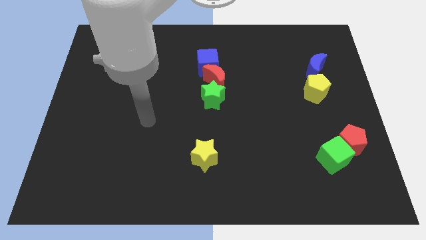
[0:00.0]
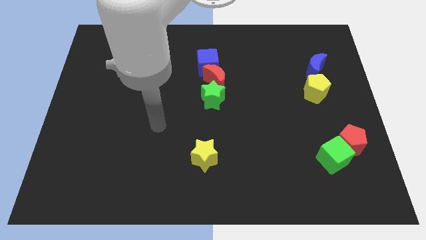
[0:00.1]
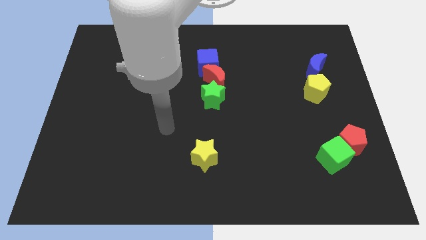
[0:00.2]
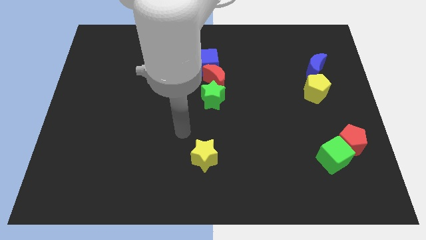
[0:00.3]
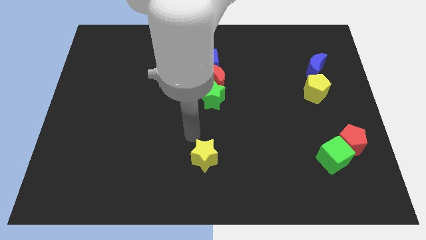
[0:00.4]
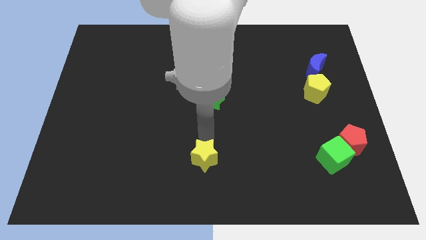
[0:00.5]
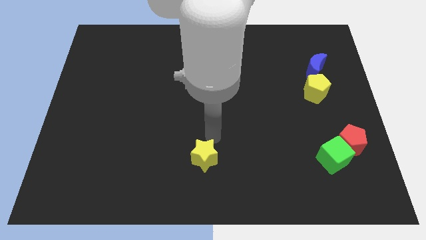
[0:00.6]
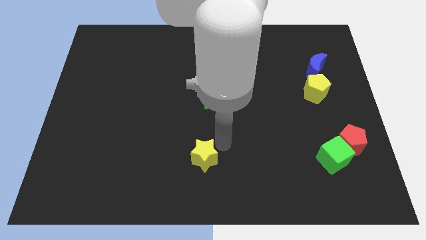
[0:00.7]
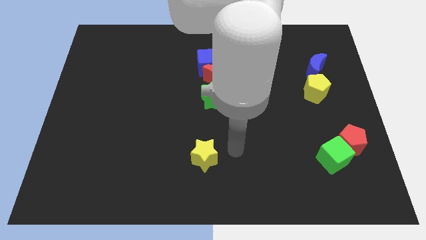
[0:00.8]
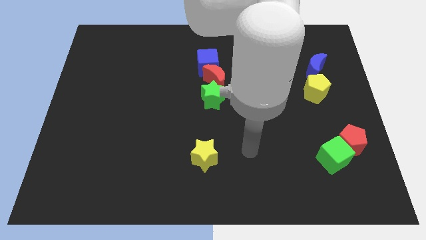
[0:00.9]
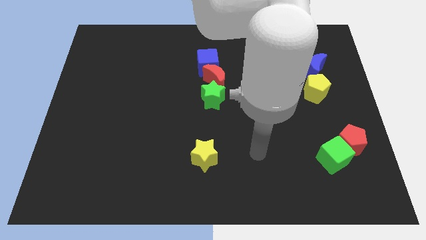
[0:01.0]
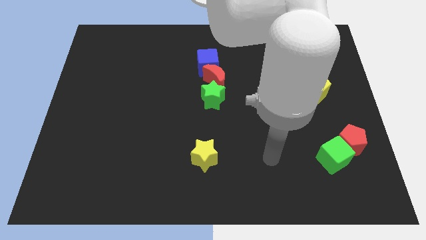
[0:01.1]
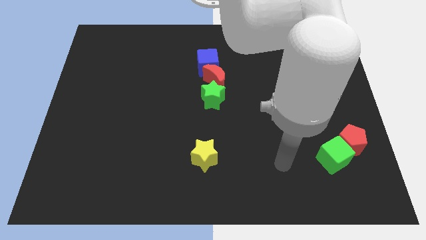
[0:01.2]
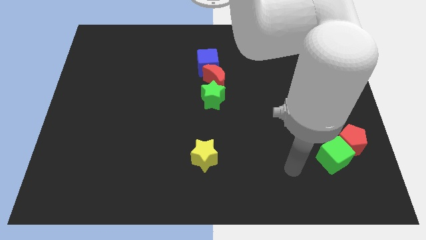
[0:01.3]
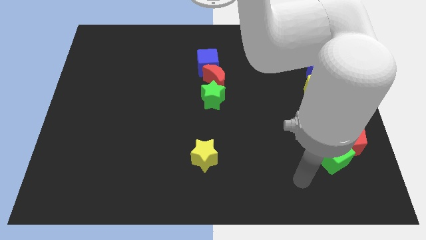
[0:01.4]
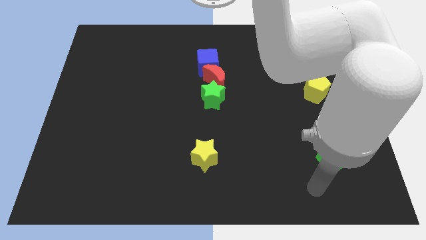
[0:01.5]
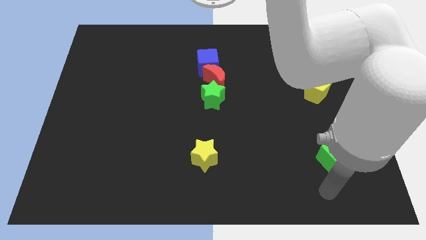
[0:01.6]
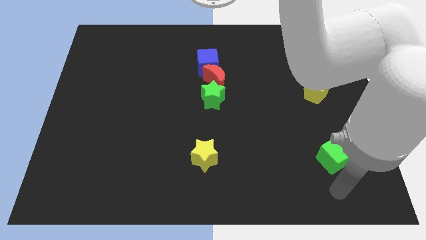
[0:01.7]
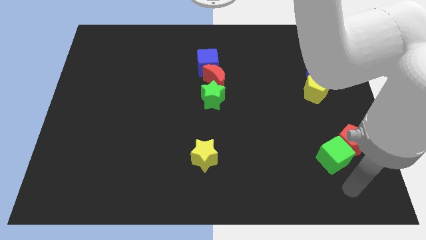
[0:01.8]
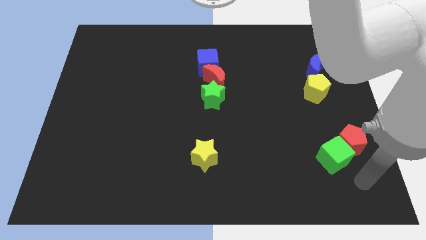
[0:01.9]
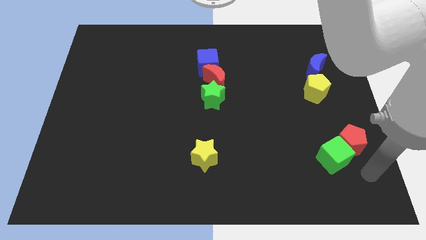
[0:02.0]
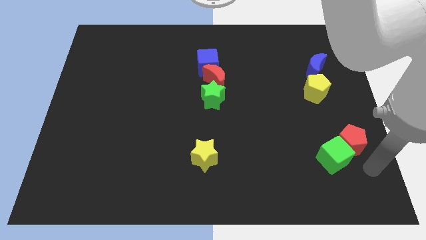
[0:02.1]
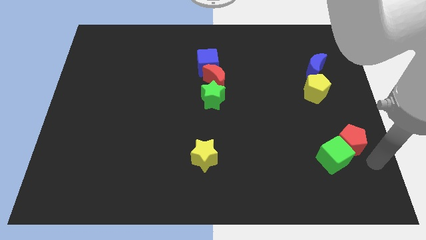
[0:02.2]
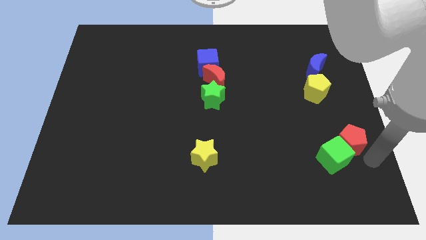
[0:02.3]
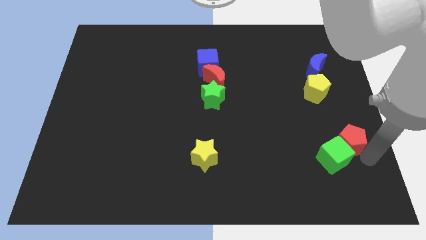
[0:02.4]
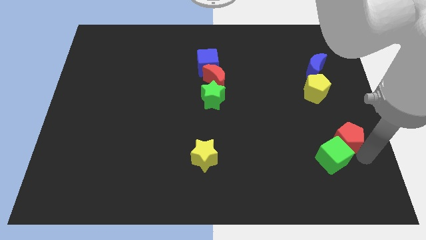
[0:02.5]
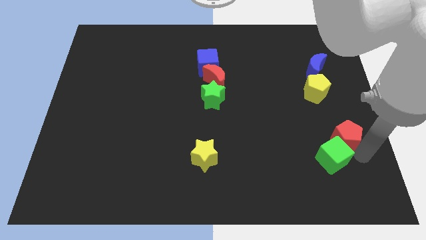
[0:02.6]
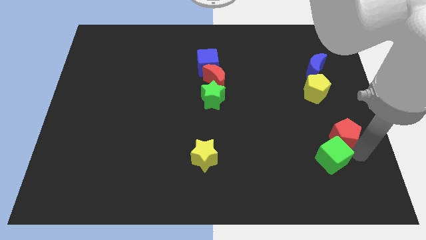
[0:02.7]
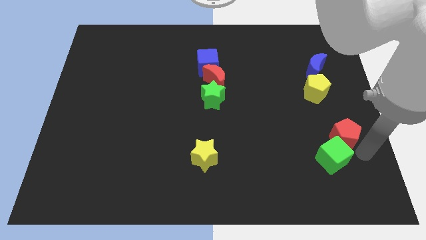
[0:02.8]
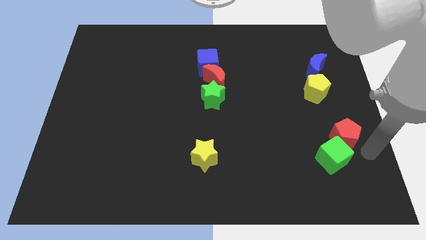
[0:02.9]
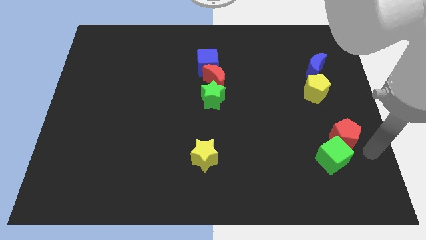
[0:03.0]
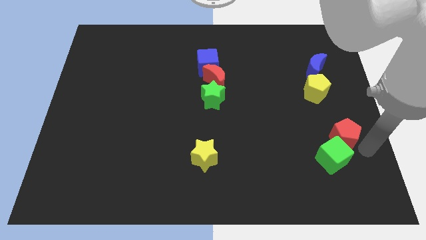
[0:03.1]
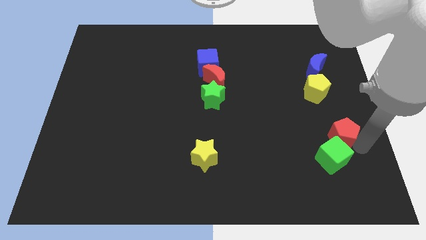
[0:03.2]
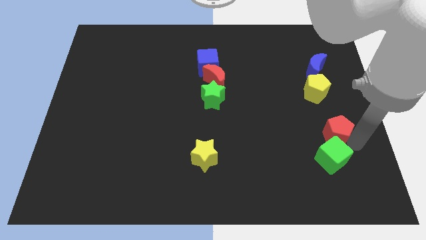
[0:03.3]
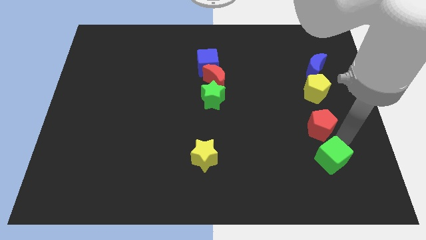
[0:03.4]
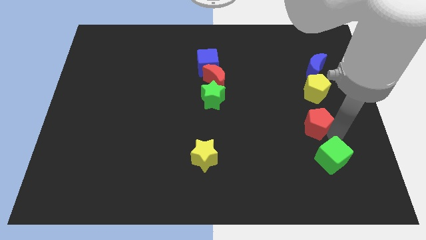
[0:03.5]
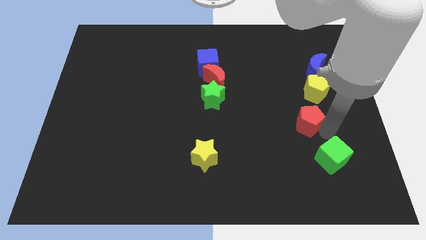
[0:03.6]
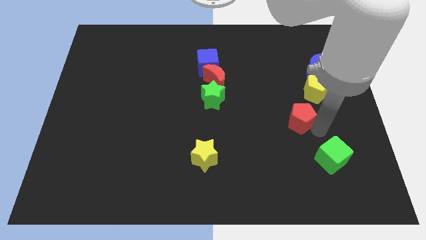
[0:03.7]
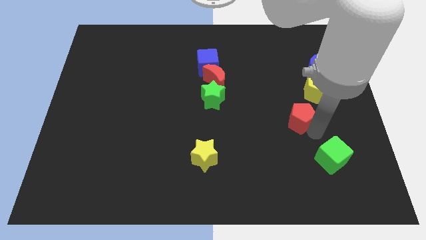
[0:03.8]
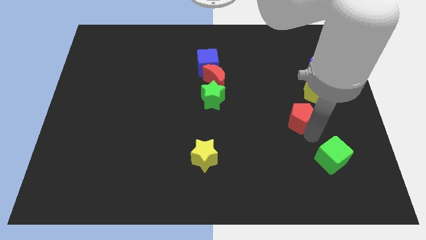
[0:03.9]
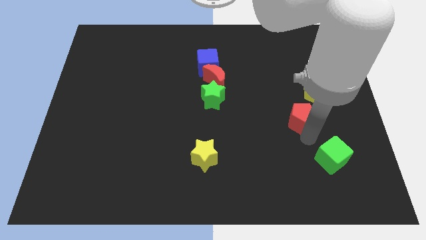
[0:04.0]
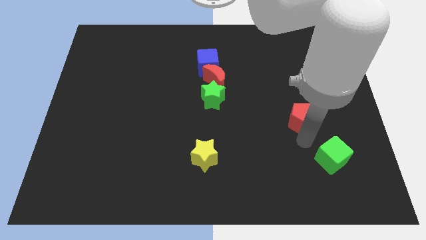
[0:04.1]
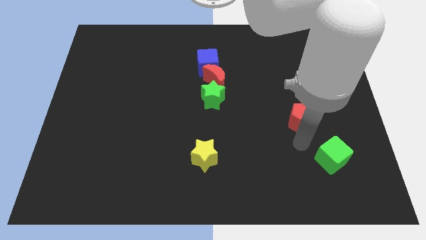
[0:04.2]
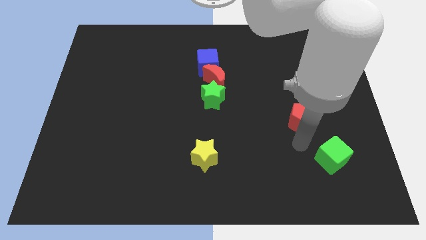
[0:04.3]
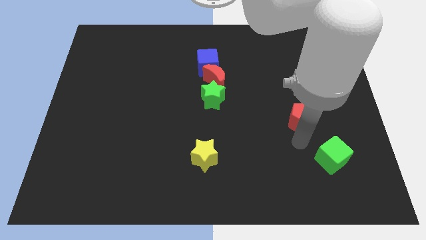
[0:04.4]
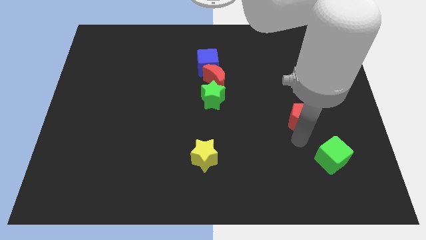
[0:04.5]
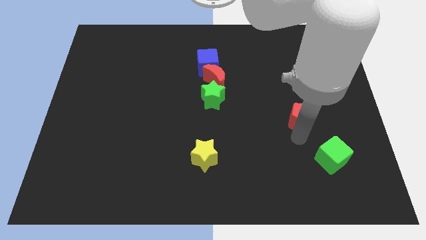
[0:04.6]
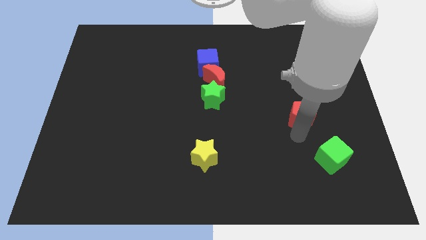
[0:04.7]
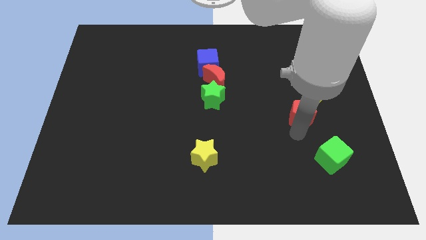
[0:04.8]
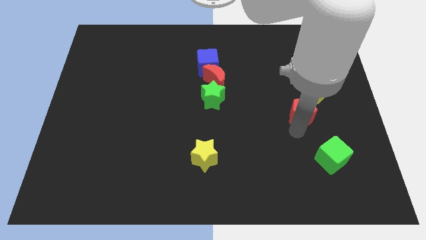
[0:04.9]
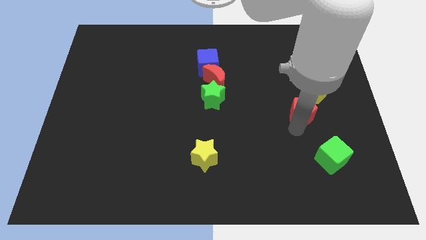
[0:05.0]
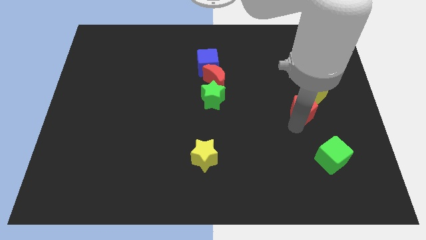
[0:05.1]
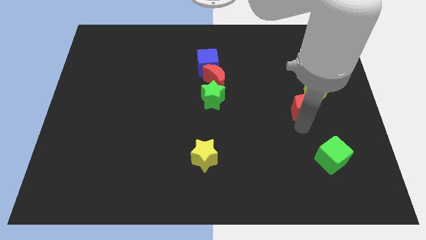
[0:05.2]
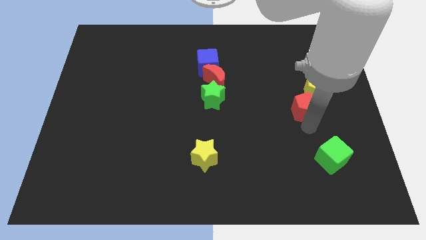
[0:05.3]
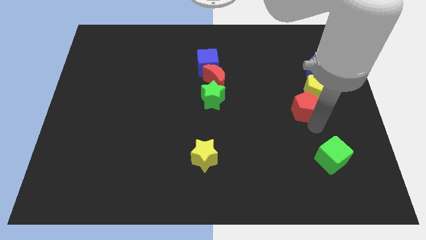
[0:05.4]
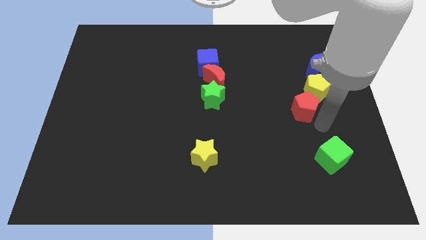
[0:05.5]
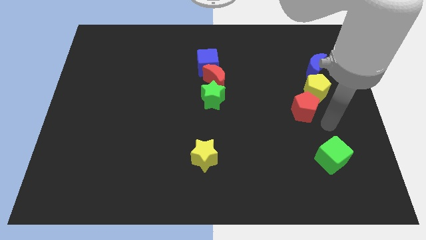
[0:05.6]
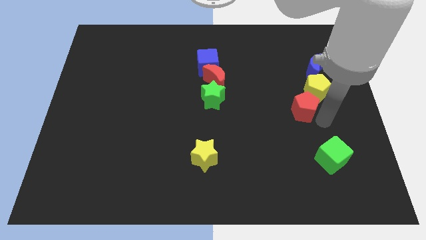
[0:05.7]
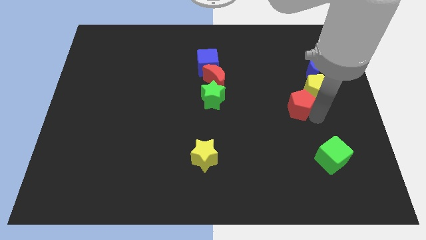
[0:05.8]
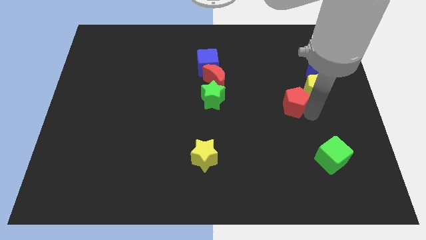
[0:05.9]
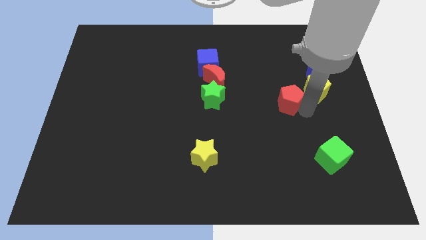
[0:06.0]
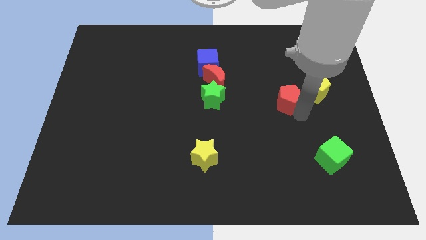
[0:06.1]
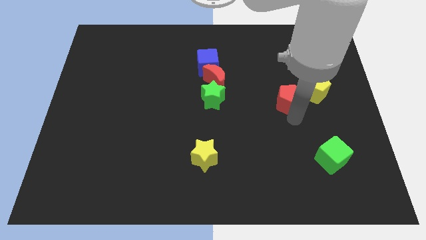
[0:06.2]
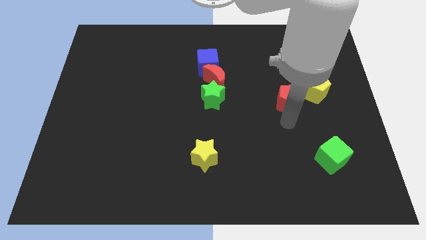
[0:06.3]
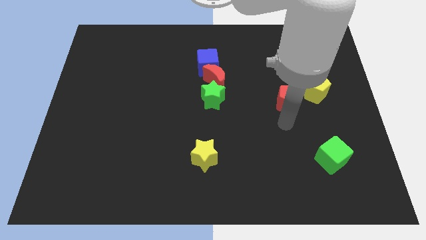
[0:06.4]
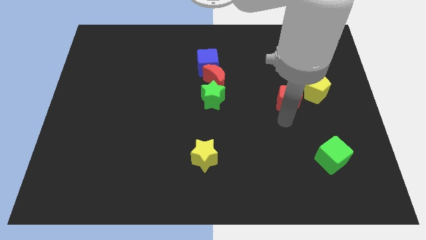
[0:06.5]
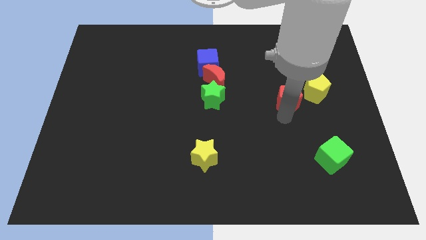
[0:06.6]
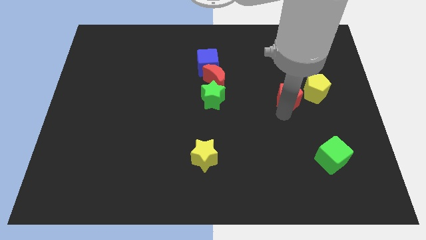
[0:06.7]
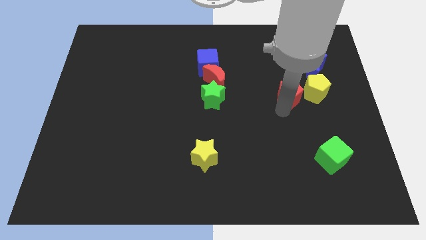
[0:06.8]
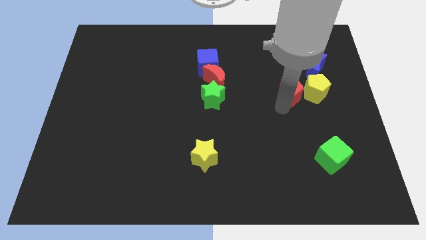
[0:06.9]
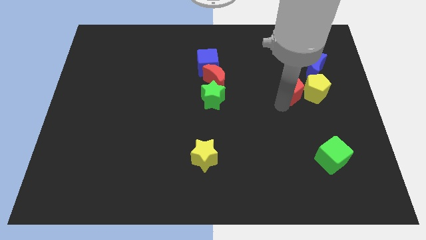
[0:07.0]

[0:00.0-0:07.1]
slide the red pentagon diagonally up and to the left of the yellow pentagon
